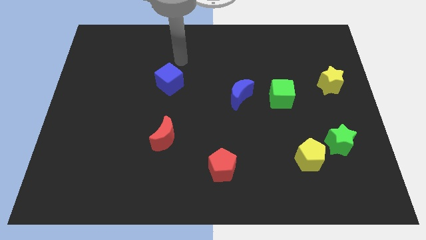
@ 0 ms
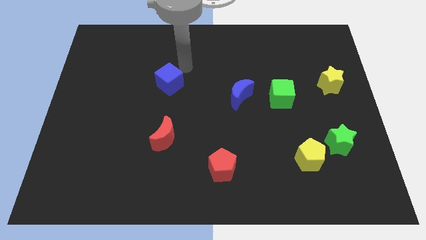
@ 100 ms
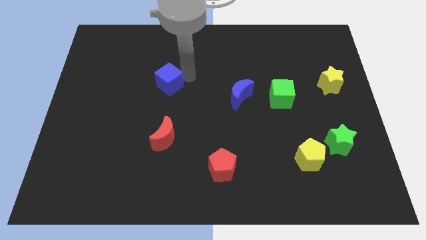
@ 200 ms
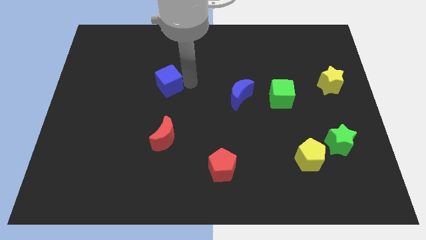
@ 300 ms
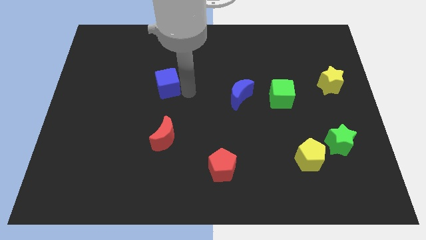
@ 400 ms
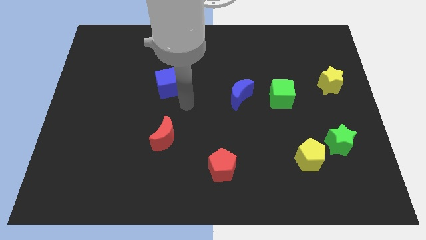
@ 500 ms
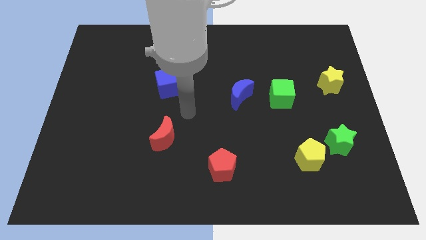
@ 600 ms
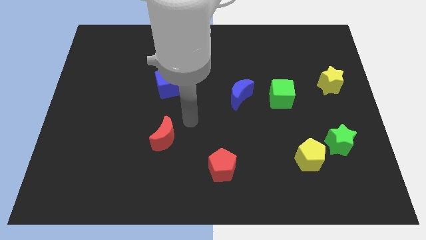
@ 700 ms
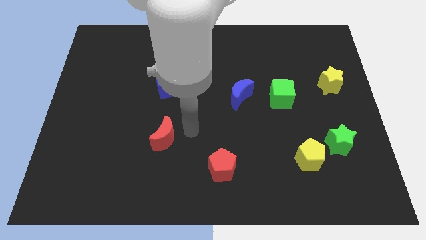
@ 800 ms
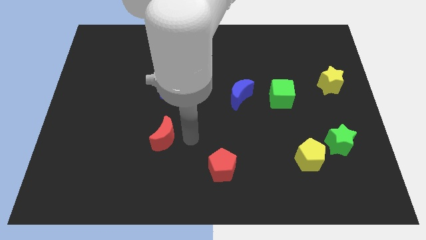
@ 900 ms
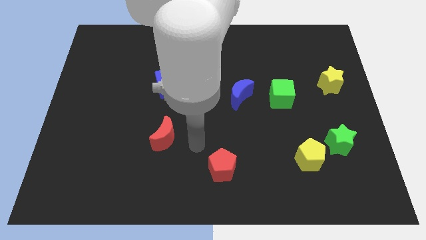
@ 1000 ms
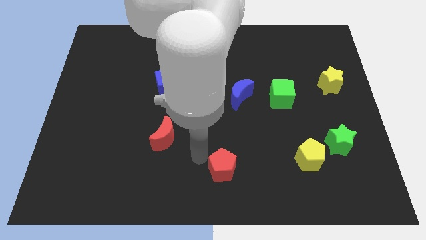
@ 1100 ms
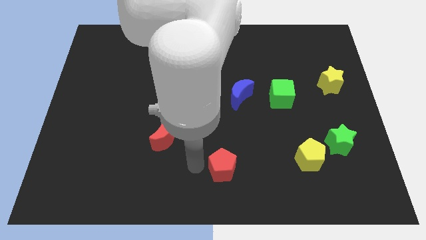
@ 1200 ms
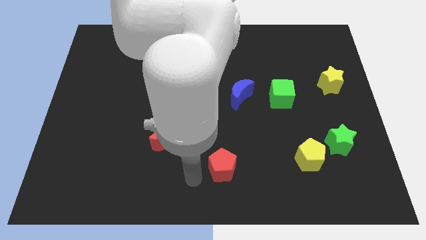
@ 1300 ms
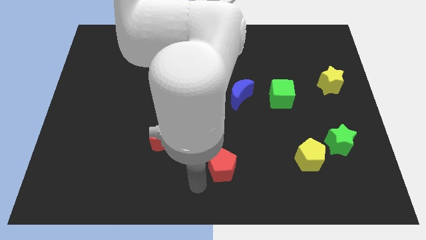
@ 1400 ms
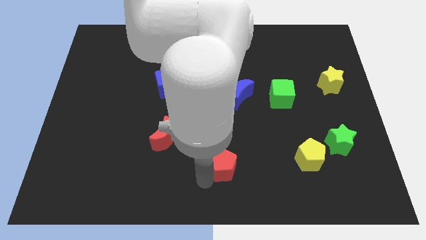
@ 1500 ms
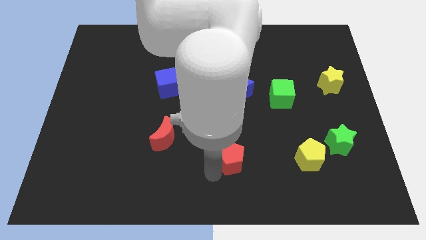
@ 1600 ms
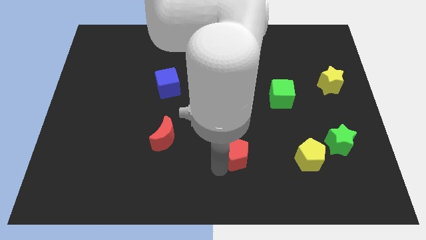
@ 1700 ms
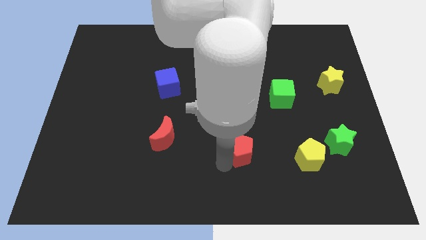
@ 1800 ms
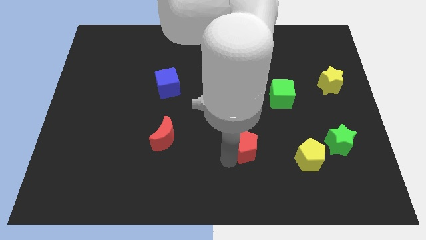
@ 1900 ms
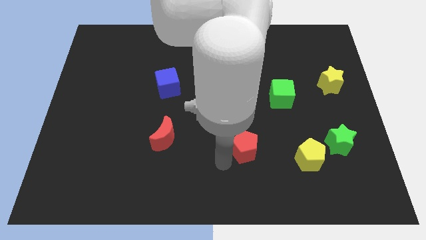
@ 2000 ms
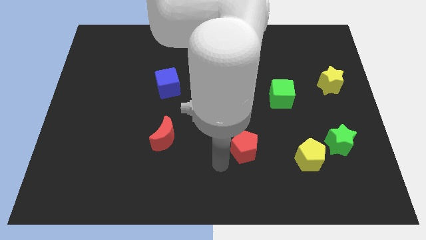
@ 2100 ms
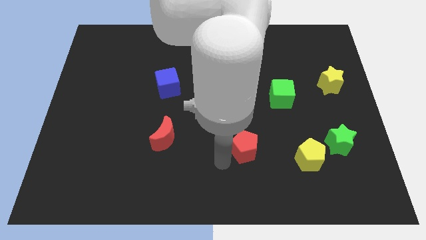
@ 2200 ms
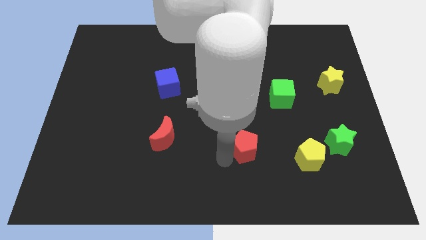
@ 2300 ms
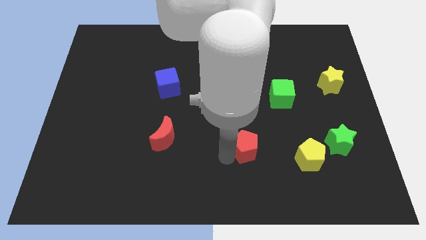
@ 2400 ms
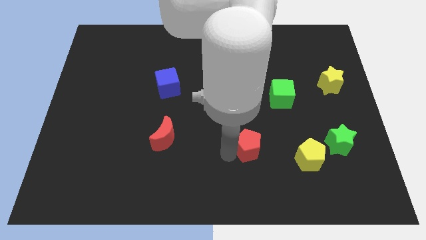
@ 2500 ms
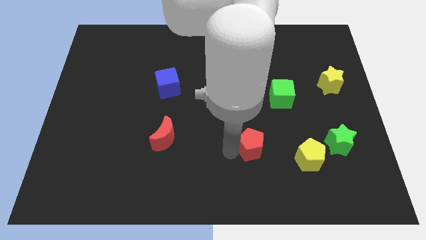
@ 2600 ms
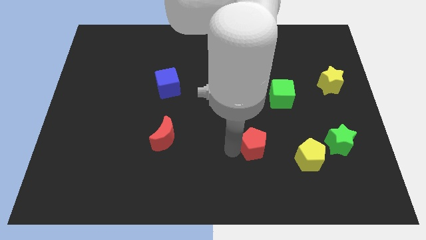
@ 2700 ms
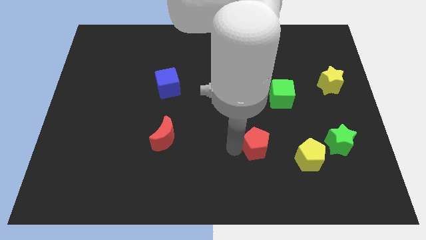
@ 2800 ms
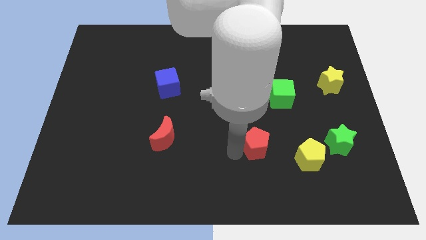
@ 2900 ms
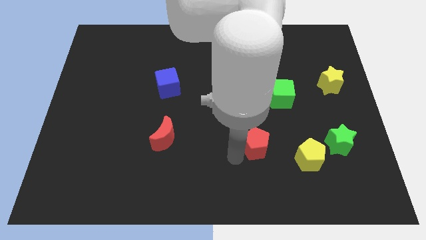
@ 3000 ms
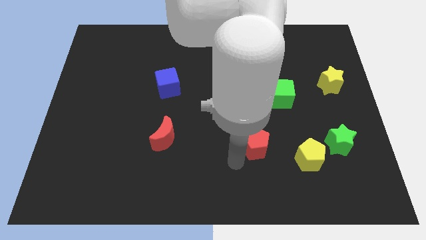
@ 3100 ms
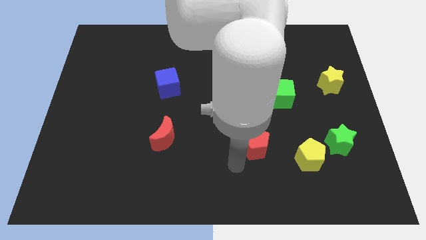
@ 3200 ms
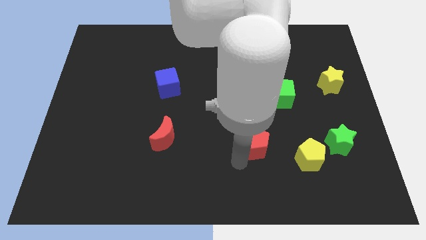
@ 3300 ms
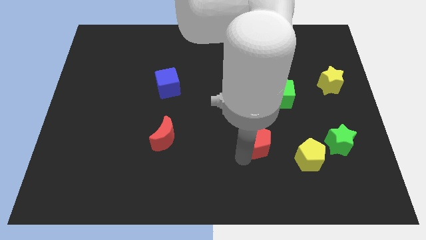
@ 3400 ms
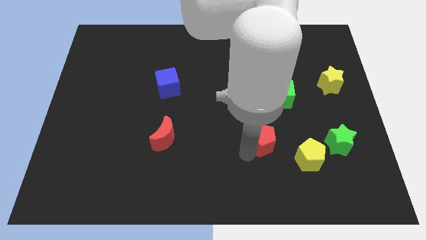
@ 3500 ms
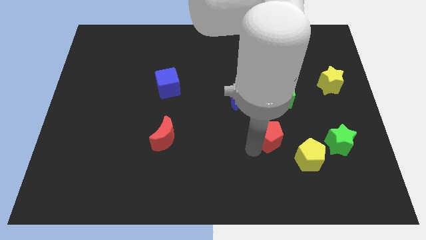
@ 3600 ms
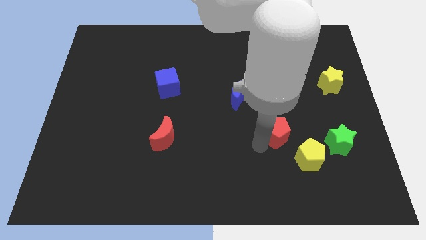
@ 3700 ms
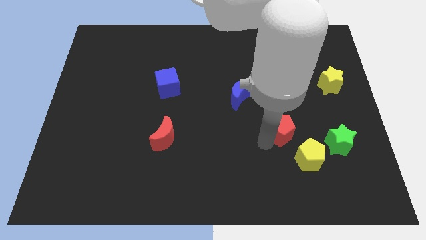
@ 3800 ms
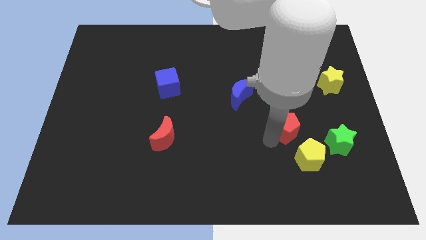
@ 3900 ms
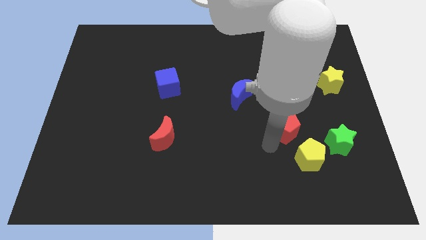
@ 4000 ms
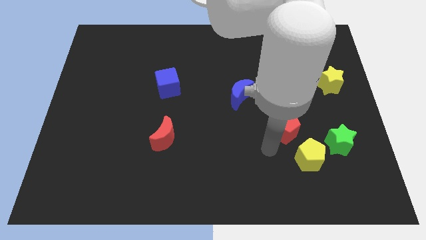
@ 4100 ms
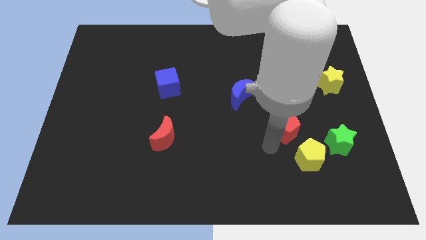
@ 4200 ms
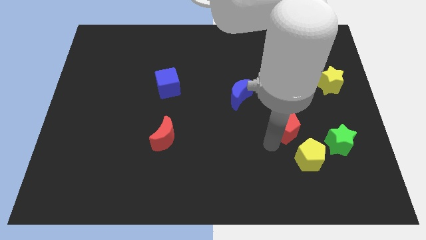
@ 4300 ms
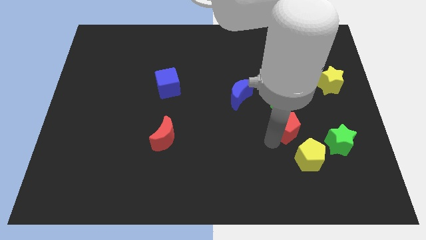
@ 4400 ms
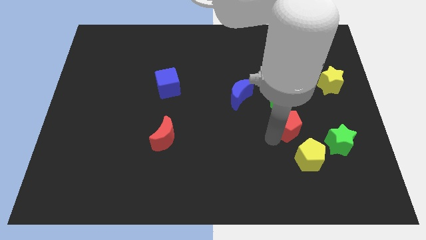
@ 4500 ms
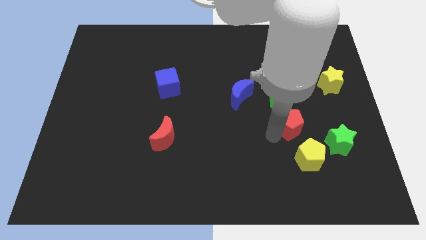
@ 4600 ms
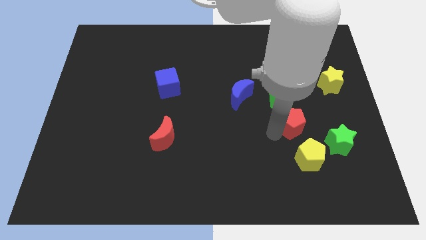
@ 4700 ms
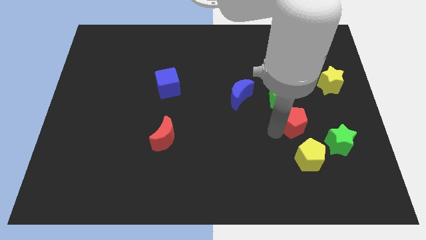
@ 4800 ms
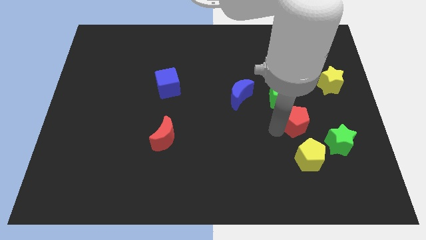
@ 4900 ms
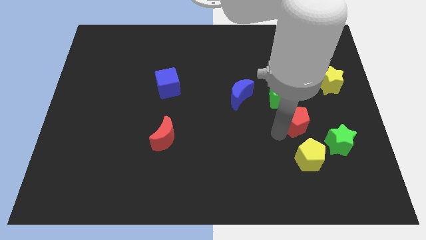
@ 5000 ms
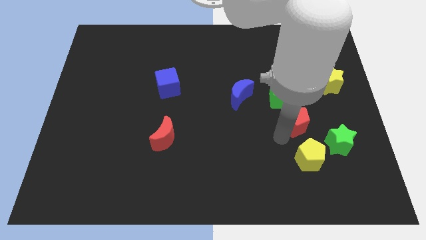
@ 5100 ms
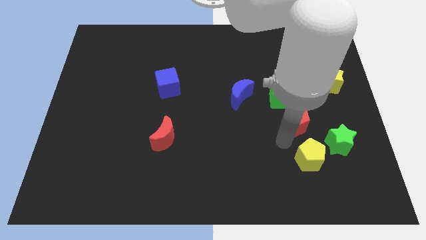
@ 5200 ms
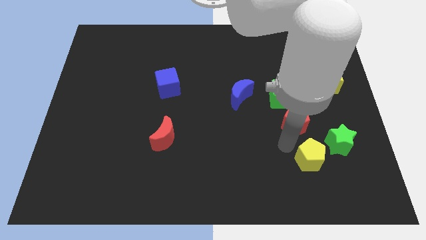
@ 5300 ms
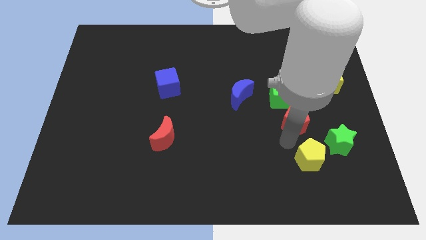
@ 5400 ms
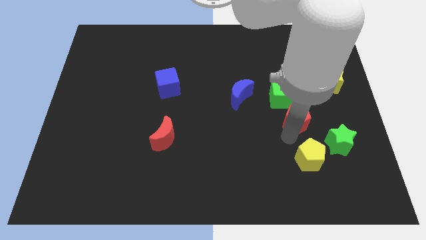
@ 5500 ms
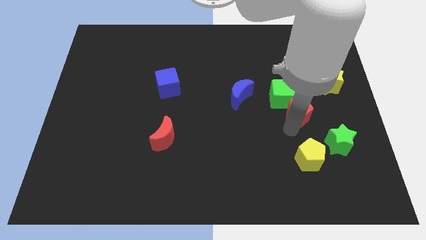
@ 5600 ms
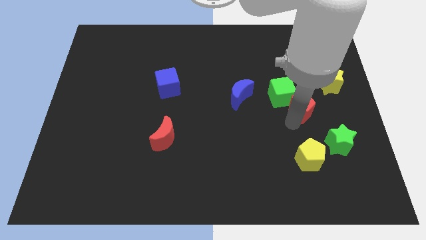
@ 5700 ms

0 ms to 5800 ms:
slide the red pentagon to the right side of the green cube
